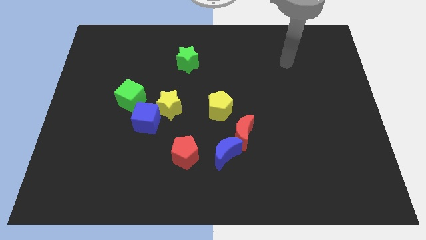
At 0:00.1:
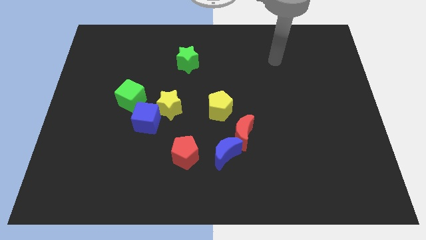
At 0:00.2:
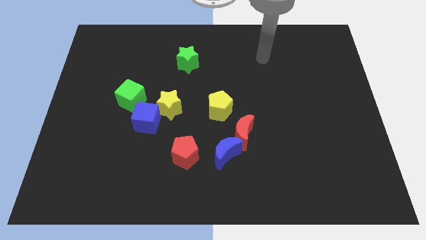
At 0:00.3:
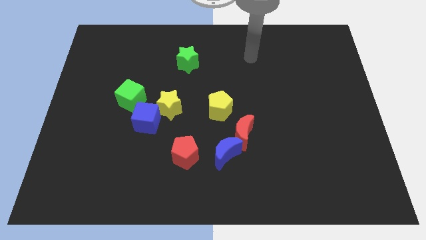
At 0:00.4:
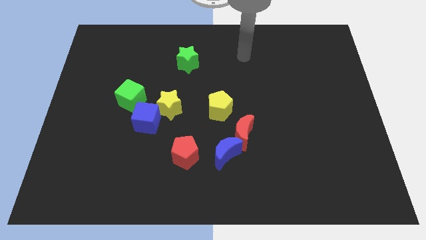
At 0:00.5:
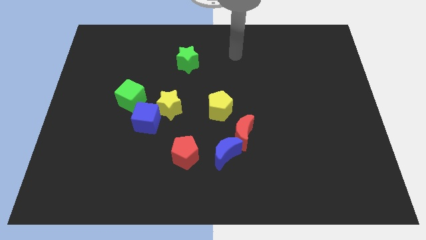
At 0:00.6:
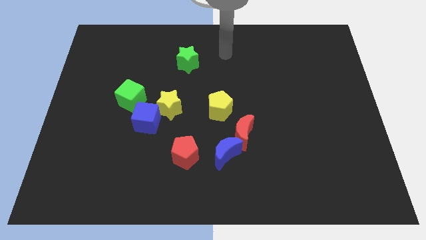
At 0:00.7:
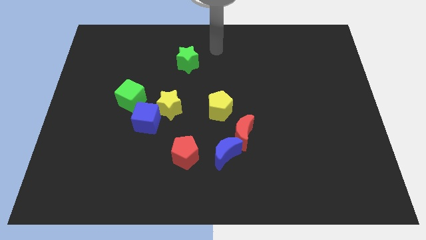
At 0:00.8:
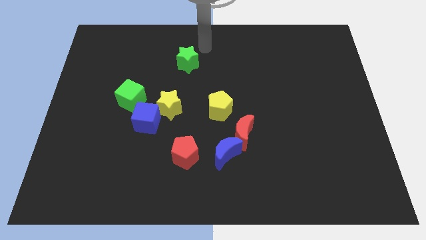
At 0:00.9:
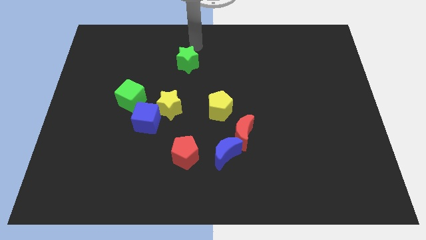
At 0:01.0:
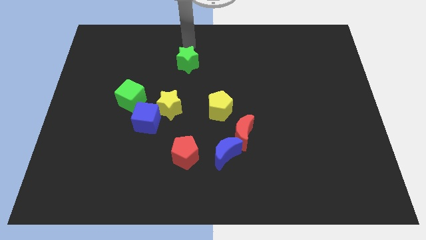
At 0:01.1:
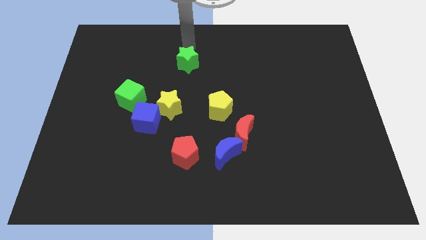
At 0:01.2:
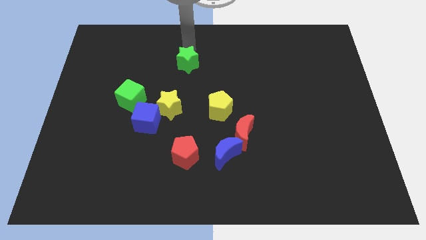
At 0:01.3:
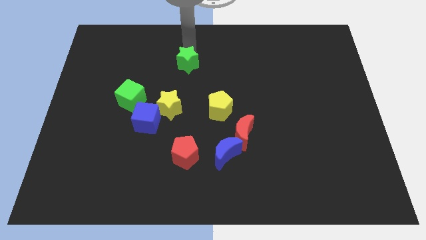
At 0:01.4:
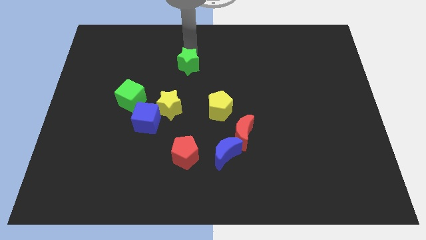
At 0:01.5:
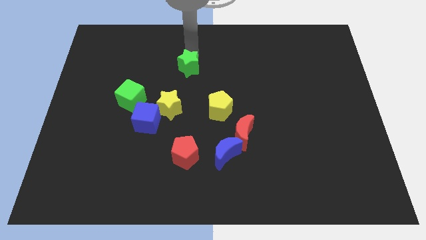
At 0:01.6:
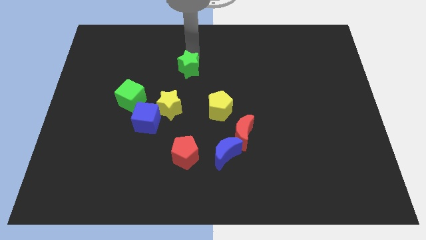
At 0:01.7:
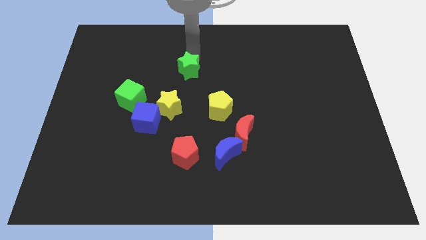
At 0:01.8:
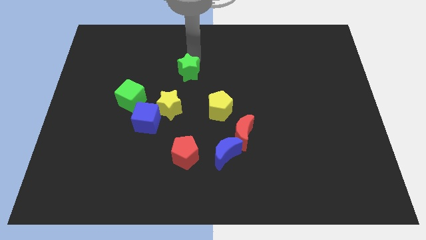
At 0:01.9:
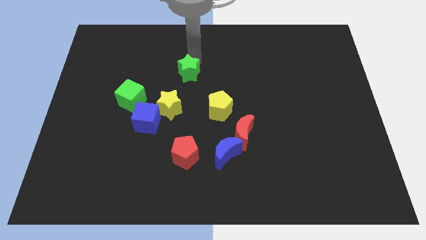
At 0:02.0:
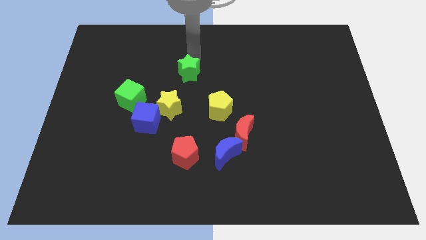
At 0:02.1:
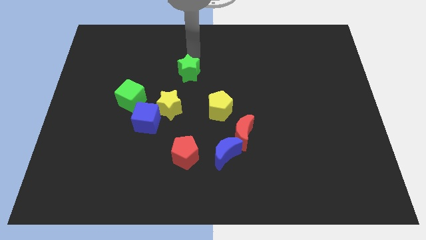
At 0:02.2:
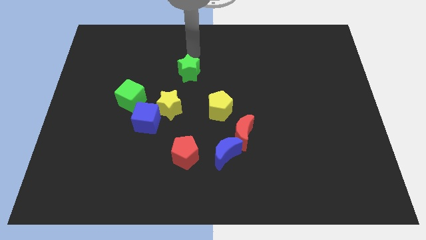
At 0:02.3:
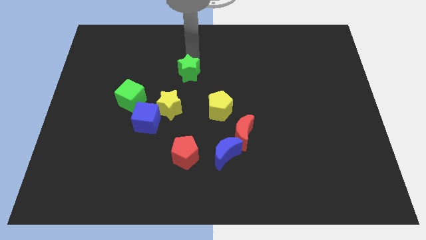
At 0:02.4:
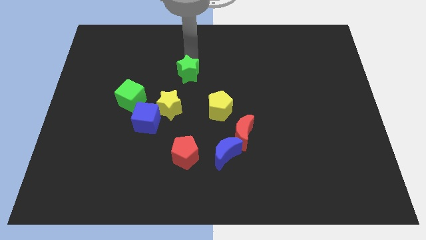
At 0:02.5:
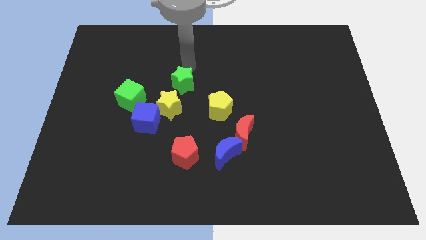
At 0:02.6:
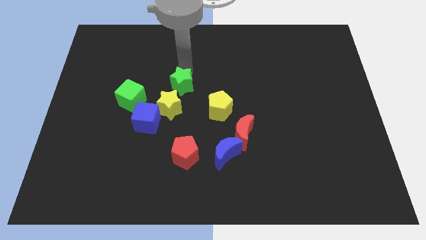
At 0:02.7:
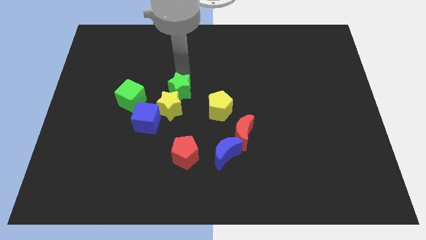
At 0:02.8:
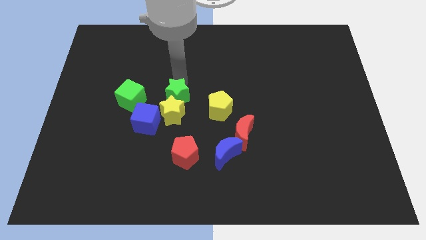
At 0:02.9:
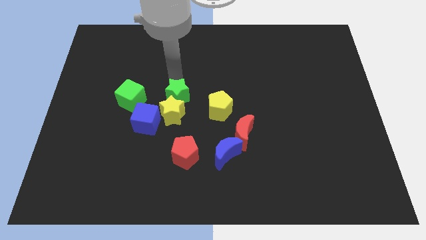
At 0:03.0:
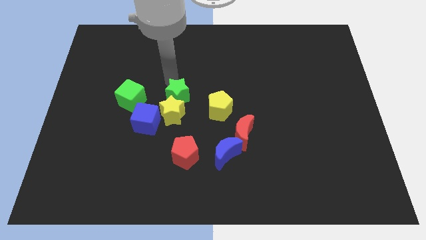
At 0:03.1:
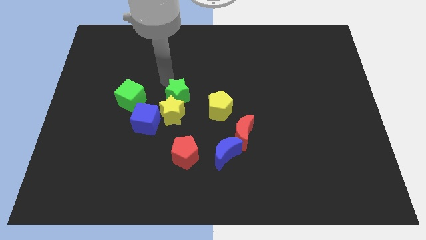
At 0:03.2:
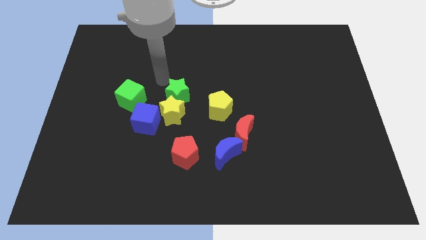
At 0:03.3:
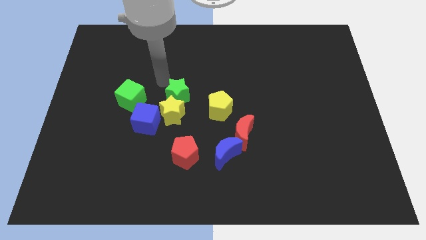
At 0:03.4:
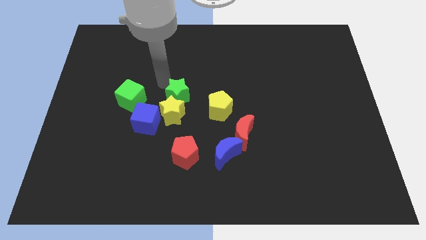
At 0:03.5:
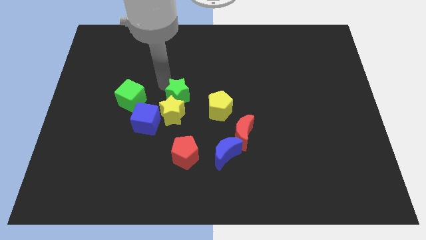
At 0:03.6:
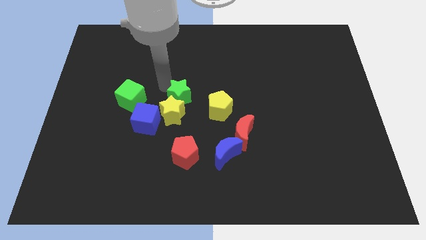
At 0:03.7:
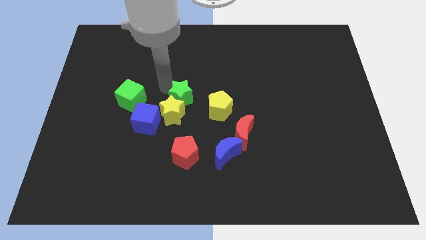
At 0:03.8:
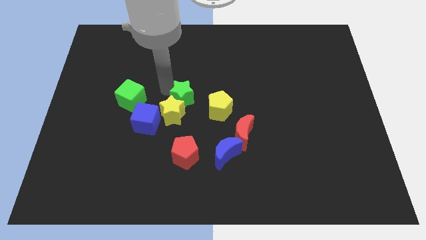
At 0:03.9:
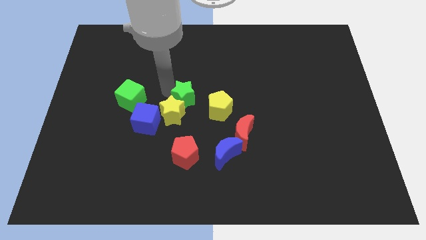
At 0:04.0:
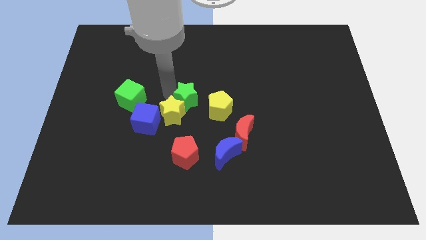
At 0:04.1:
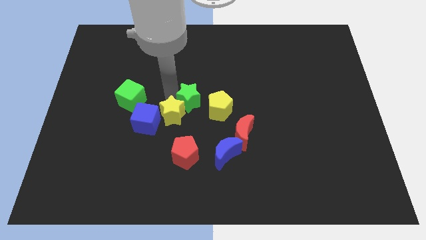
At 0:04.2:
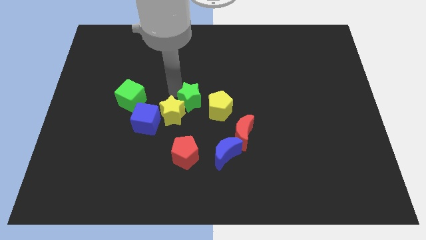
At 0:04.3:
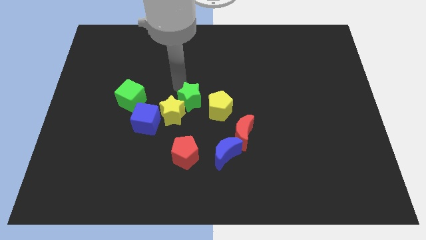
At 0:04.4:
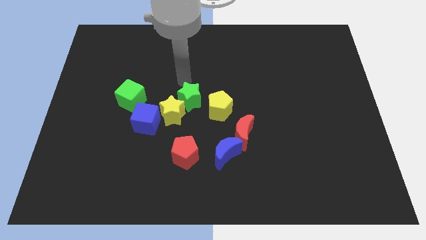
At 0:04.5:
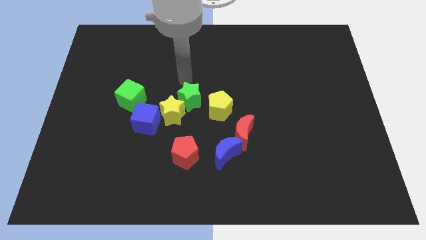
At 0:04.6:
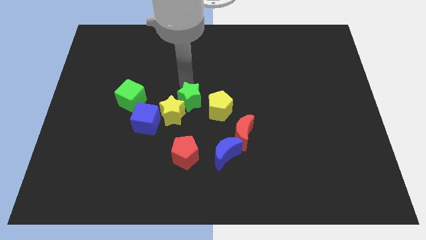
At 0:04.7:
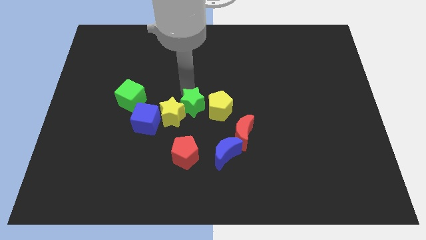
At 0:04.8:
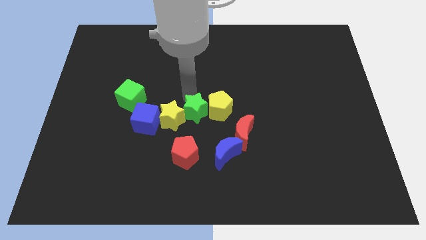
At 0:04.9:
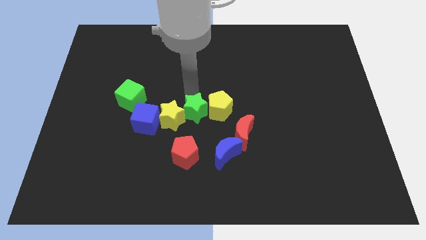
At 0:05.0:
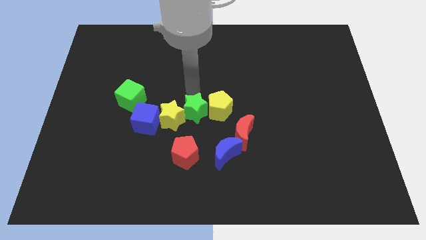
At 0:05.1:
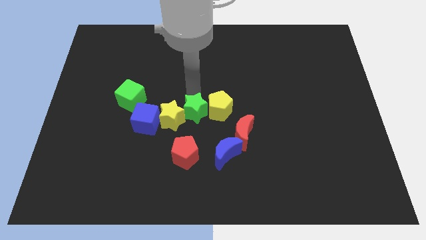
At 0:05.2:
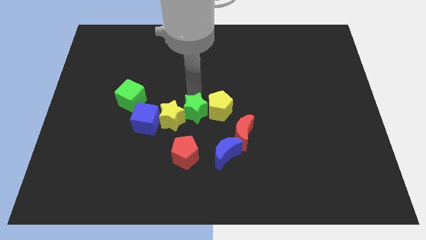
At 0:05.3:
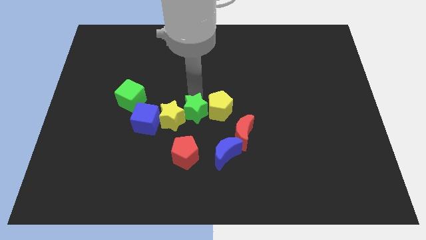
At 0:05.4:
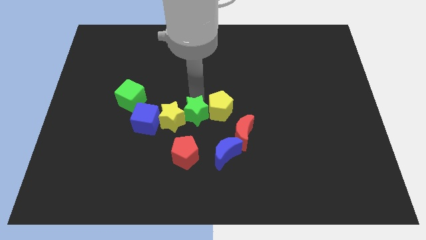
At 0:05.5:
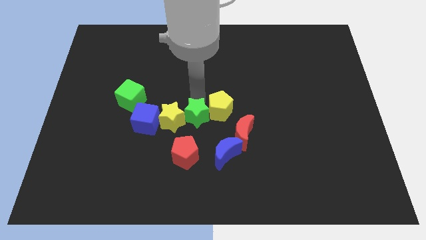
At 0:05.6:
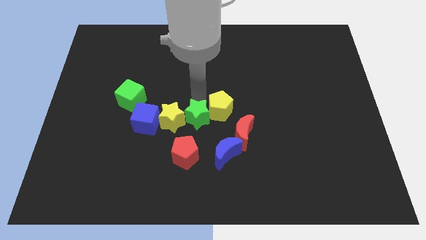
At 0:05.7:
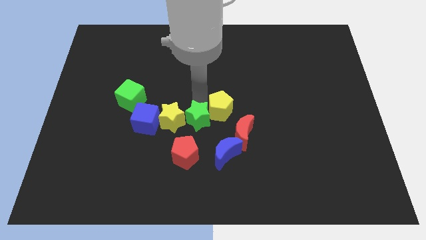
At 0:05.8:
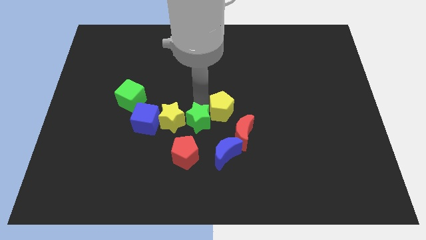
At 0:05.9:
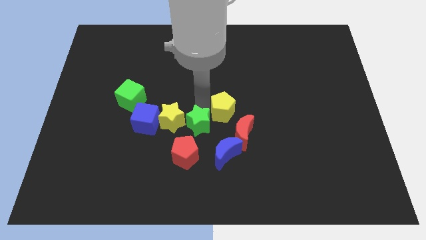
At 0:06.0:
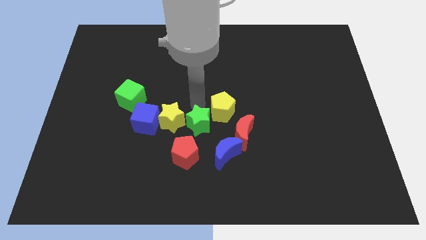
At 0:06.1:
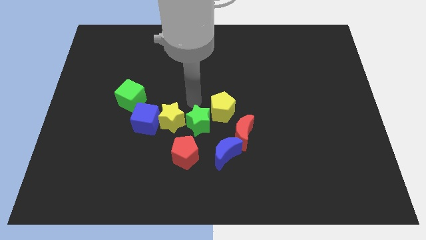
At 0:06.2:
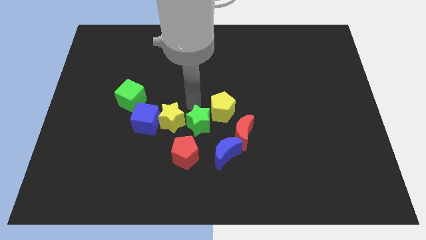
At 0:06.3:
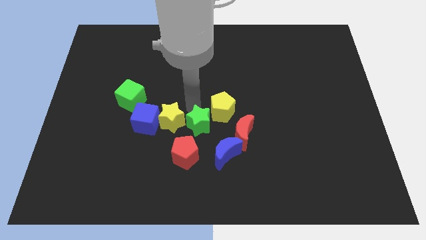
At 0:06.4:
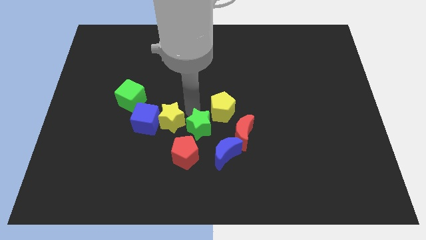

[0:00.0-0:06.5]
move the green star down

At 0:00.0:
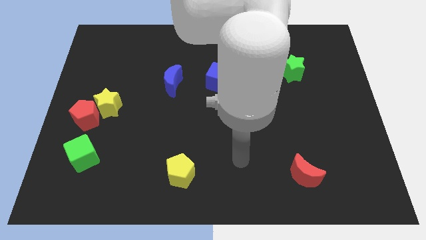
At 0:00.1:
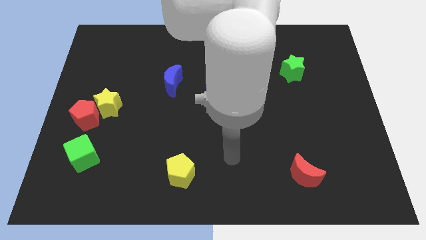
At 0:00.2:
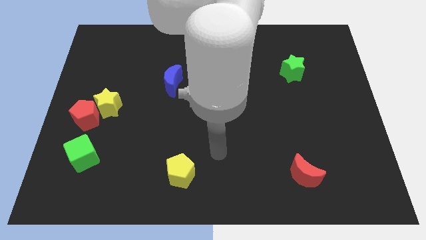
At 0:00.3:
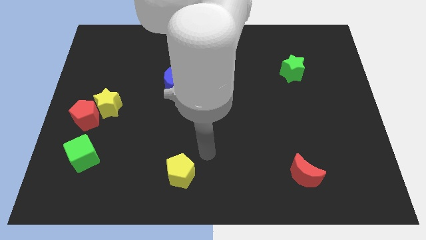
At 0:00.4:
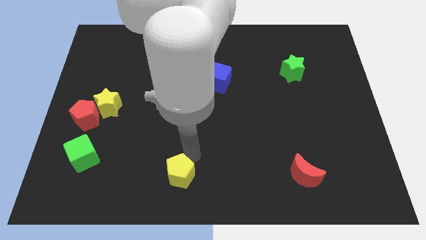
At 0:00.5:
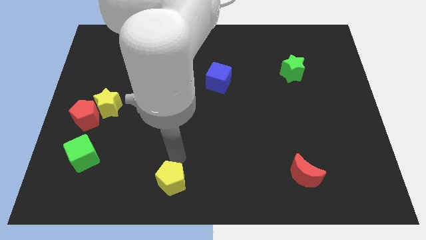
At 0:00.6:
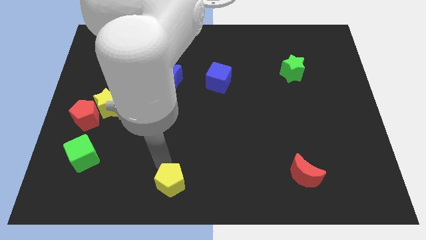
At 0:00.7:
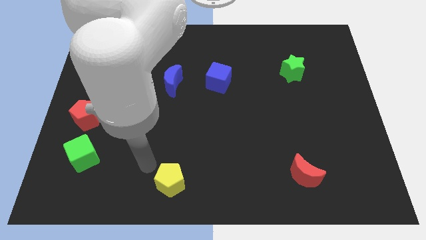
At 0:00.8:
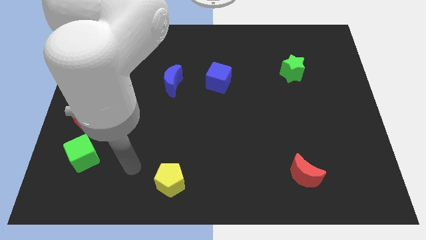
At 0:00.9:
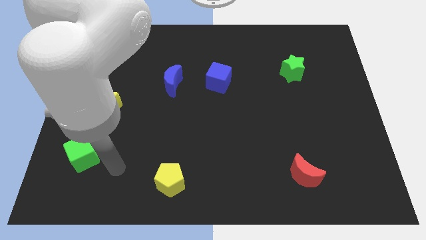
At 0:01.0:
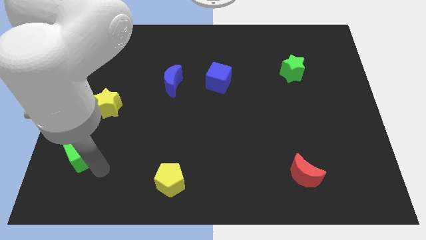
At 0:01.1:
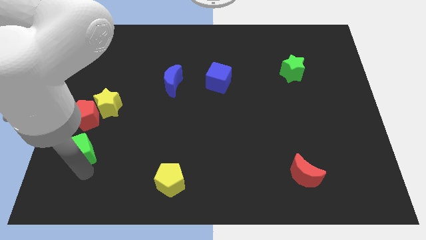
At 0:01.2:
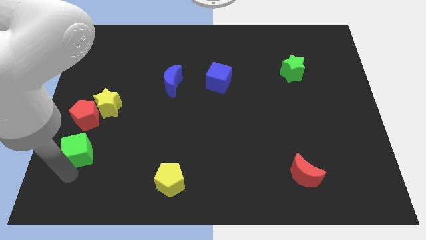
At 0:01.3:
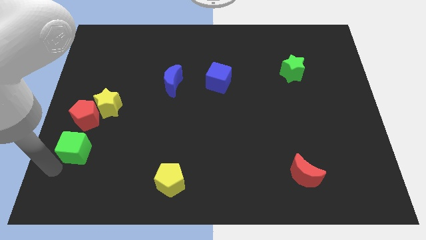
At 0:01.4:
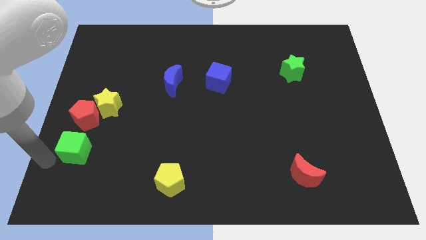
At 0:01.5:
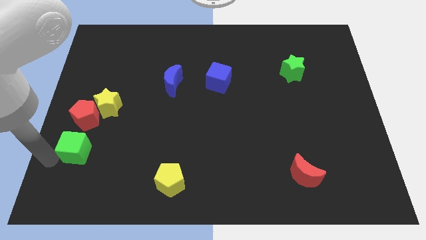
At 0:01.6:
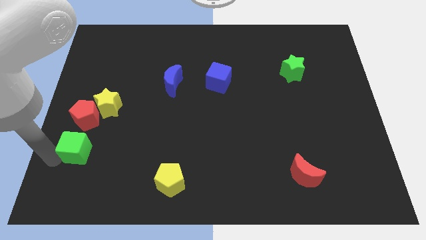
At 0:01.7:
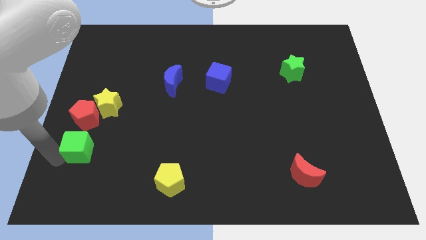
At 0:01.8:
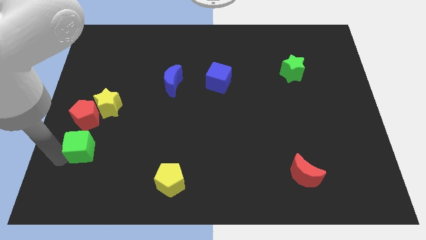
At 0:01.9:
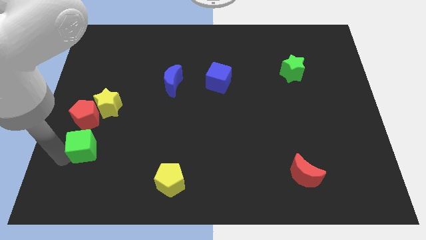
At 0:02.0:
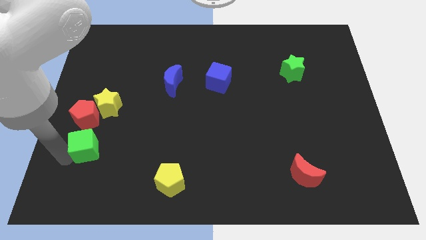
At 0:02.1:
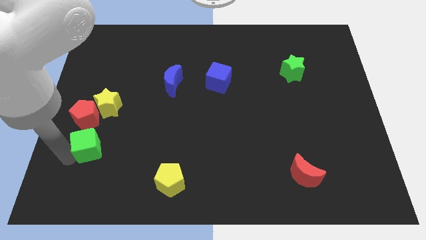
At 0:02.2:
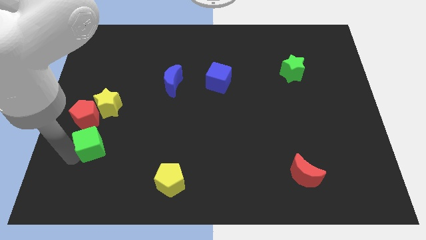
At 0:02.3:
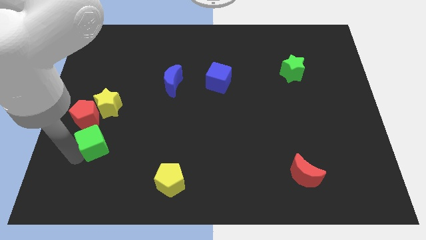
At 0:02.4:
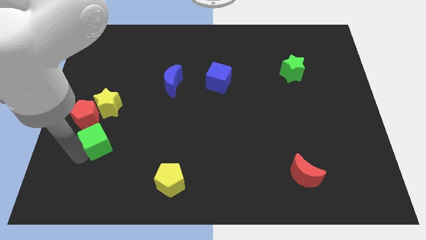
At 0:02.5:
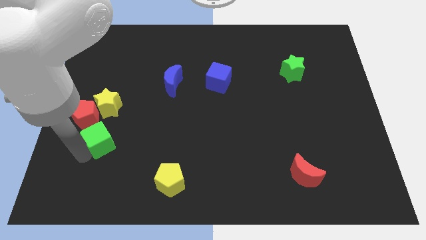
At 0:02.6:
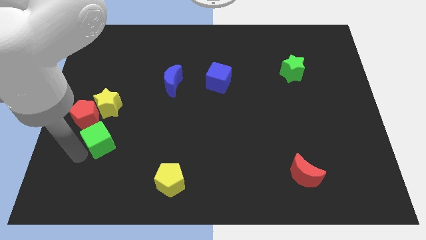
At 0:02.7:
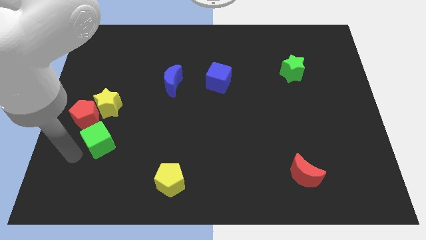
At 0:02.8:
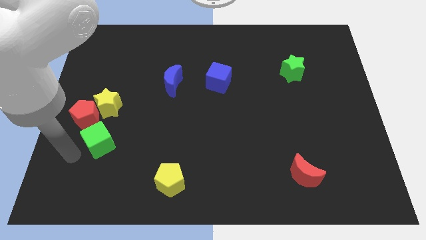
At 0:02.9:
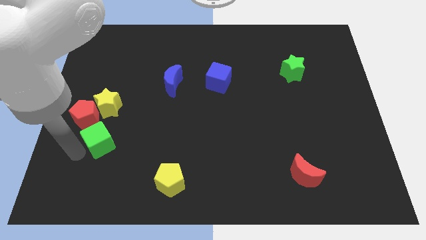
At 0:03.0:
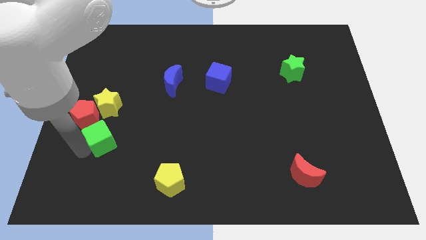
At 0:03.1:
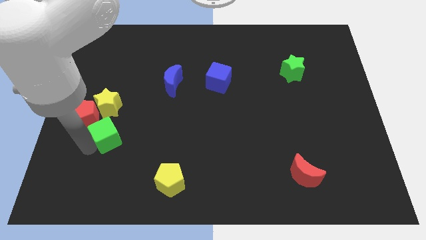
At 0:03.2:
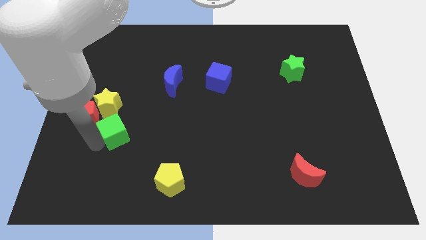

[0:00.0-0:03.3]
move the green cube somewhat upwards and to the right diagonally
